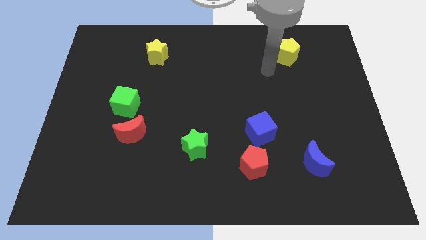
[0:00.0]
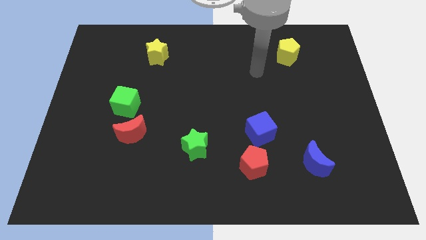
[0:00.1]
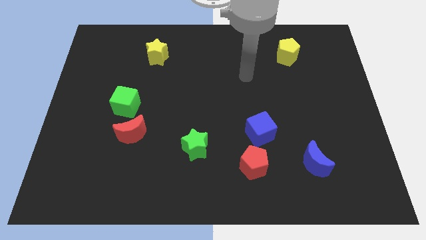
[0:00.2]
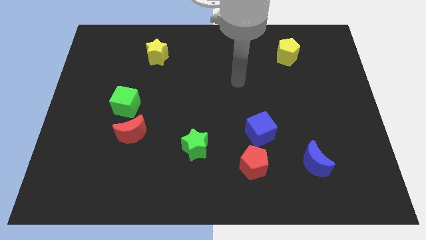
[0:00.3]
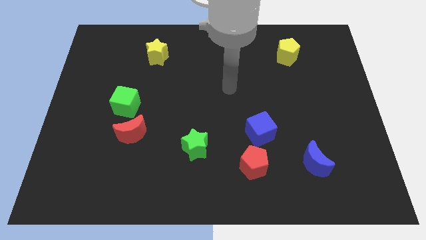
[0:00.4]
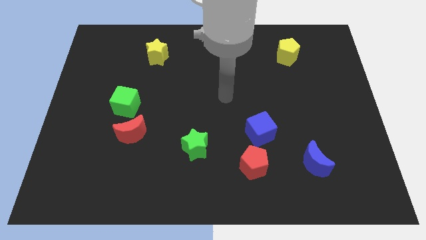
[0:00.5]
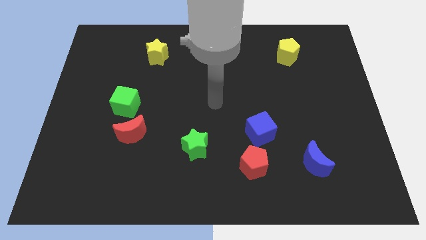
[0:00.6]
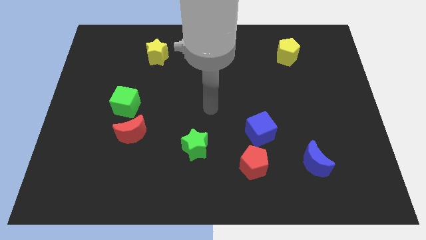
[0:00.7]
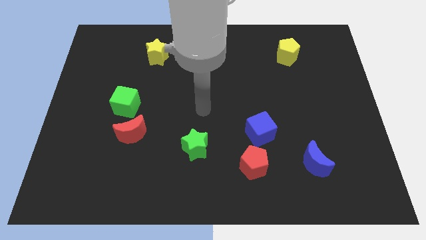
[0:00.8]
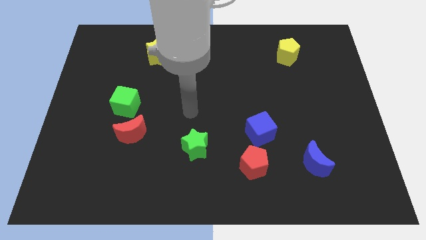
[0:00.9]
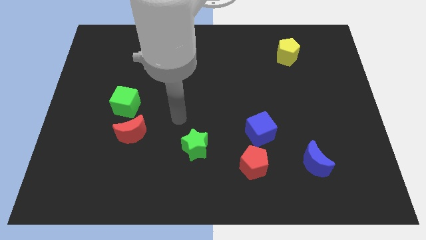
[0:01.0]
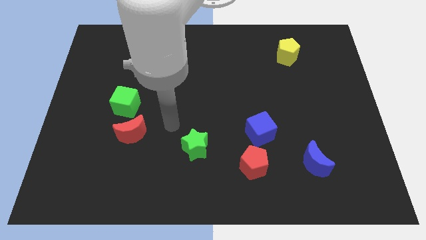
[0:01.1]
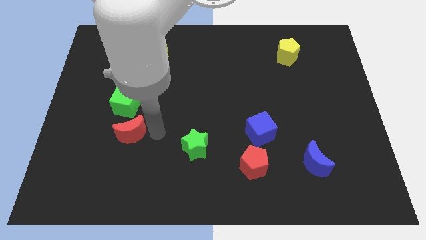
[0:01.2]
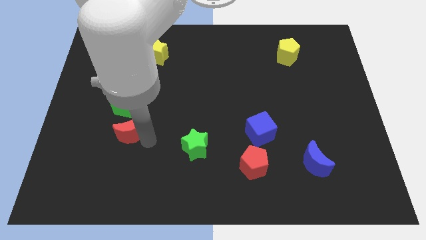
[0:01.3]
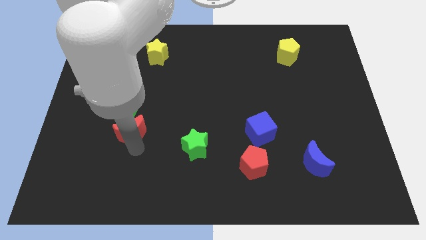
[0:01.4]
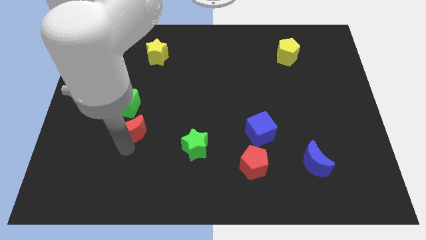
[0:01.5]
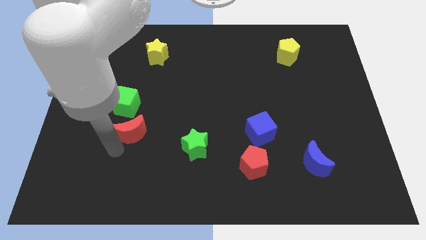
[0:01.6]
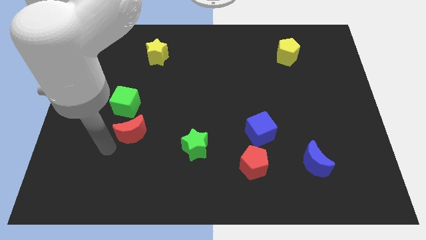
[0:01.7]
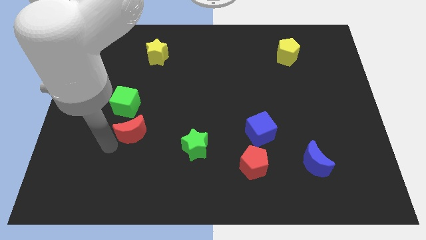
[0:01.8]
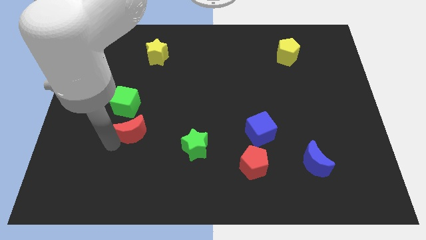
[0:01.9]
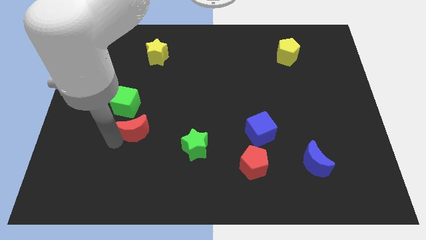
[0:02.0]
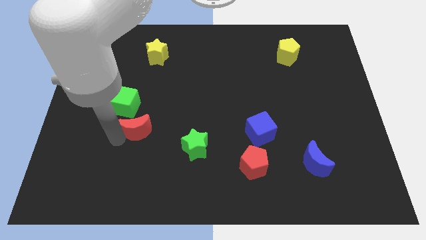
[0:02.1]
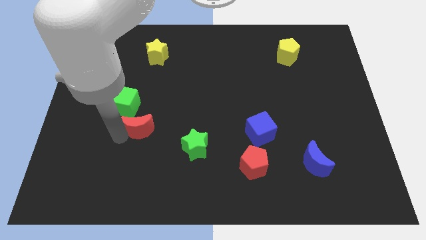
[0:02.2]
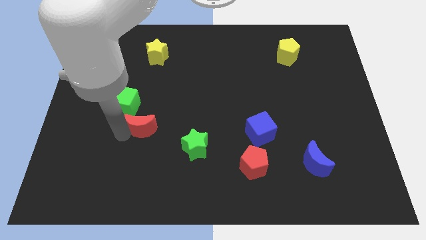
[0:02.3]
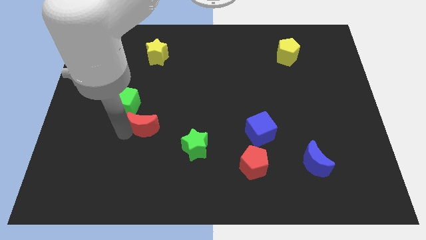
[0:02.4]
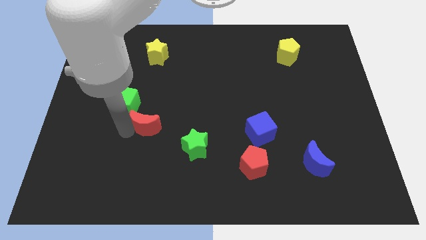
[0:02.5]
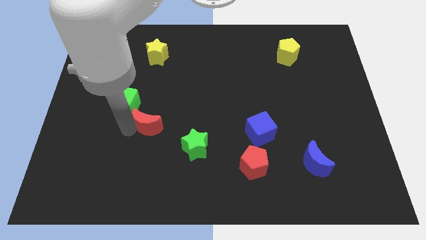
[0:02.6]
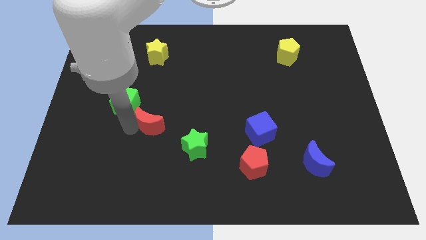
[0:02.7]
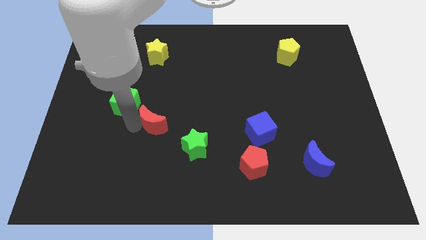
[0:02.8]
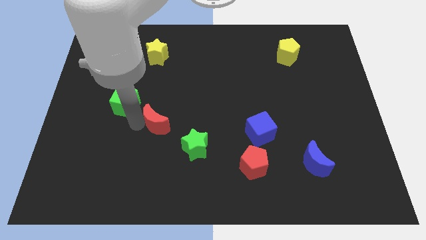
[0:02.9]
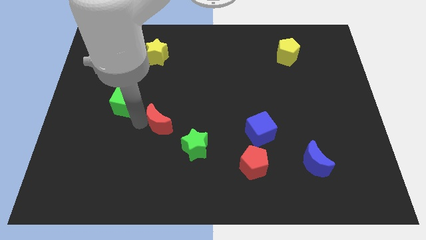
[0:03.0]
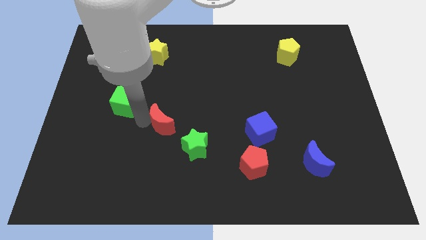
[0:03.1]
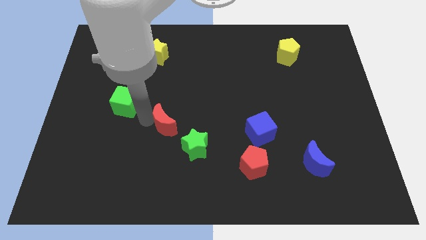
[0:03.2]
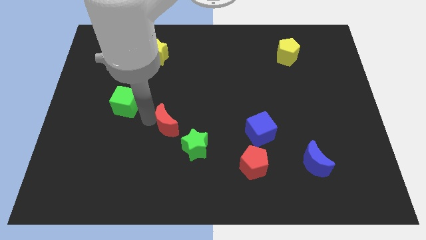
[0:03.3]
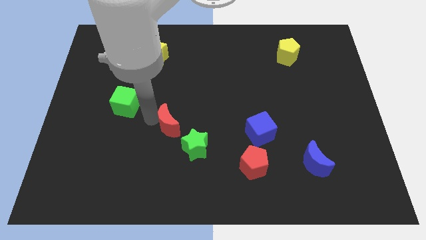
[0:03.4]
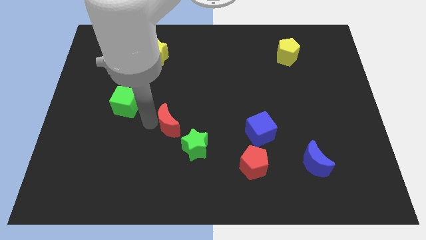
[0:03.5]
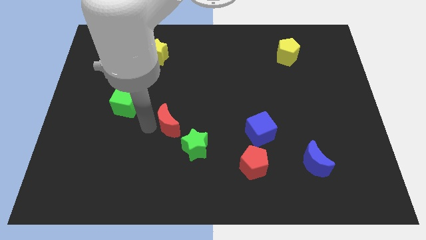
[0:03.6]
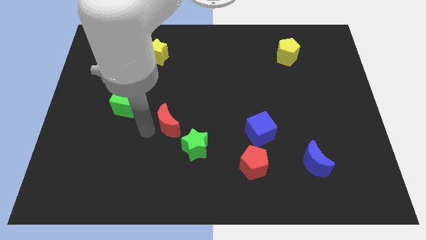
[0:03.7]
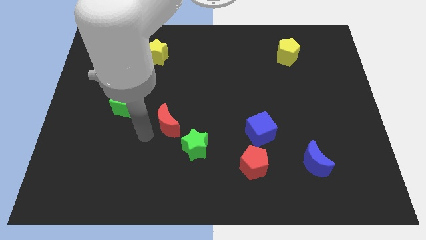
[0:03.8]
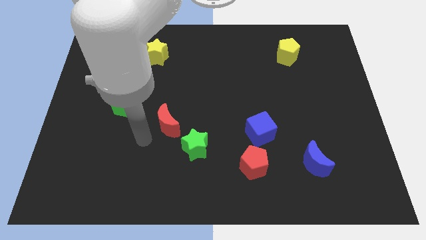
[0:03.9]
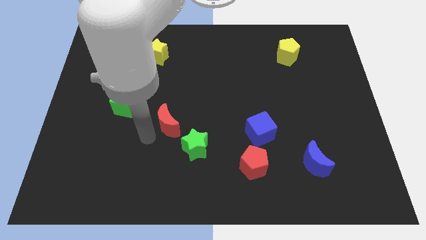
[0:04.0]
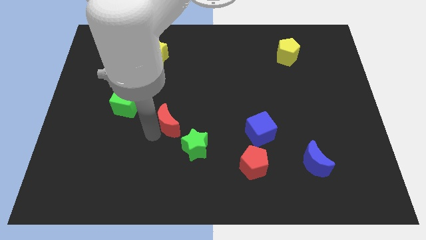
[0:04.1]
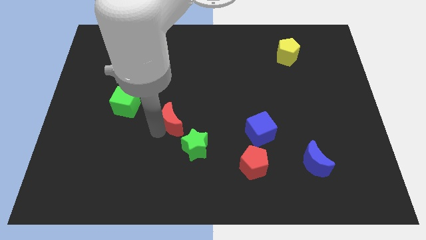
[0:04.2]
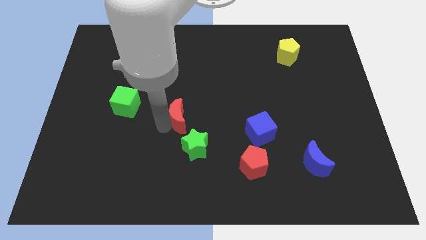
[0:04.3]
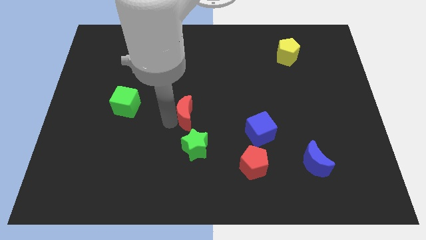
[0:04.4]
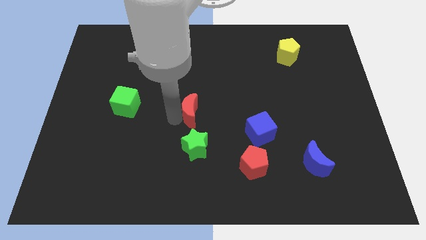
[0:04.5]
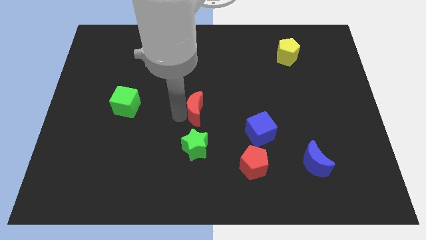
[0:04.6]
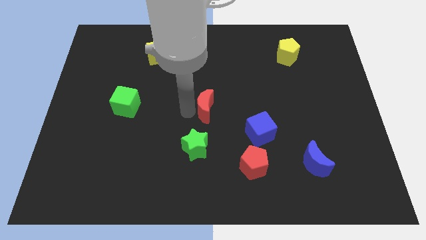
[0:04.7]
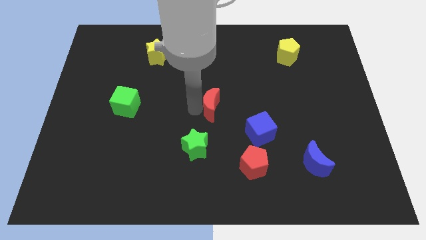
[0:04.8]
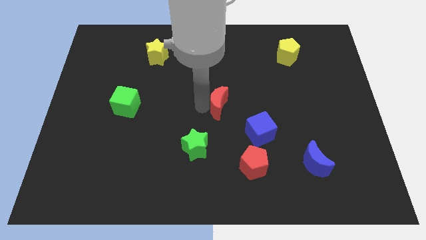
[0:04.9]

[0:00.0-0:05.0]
push the red moon to the top left of the blue cube

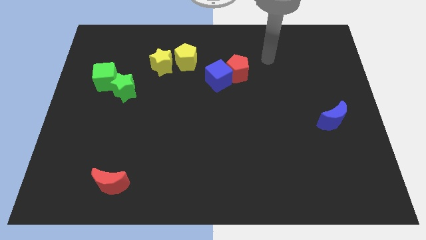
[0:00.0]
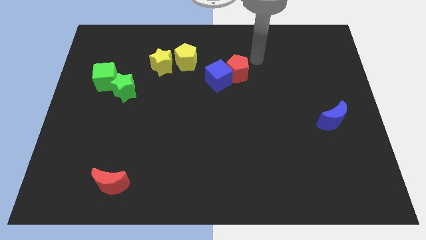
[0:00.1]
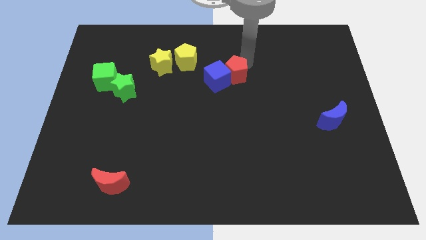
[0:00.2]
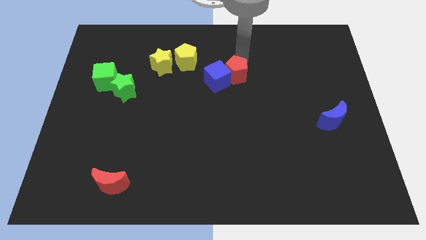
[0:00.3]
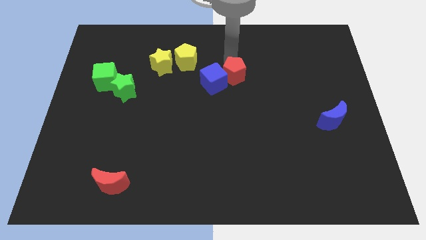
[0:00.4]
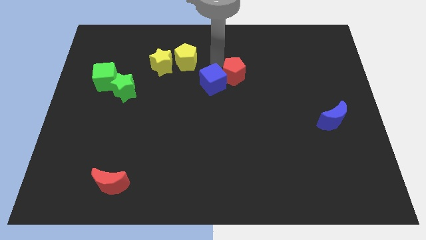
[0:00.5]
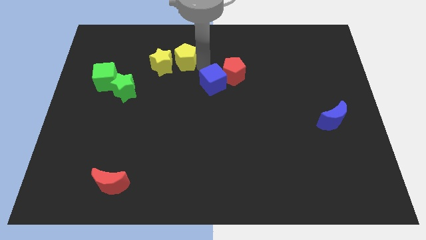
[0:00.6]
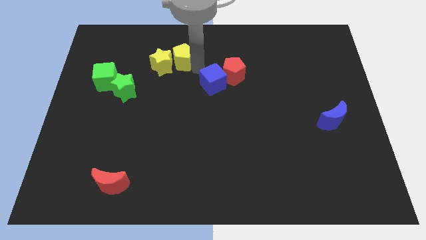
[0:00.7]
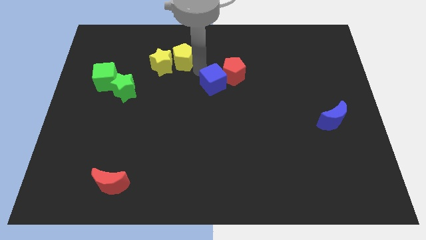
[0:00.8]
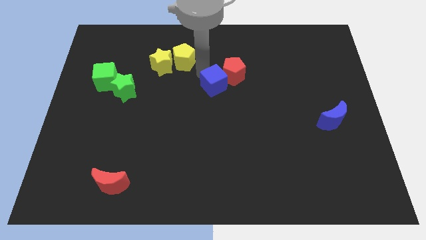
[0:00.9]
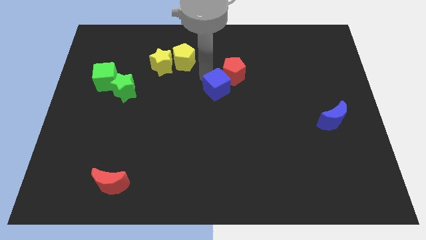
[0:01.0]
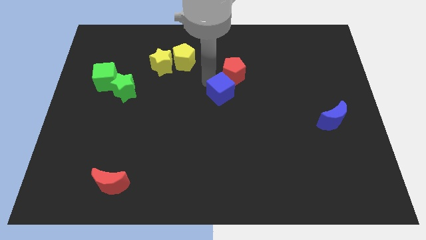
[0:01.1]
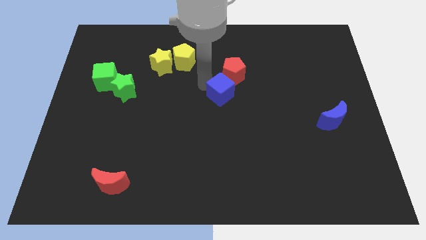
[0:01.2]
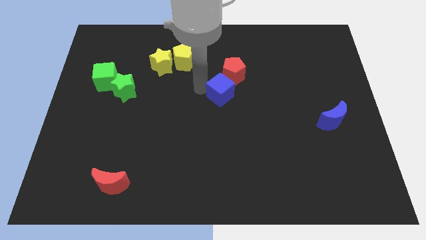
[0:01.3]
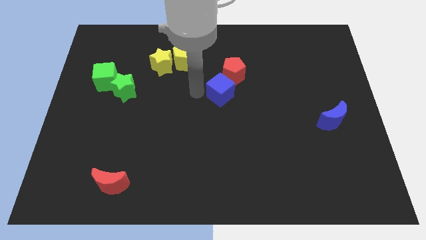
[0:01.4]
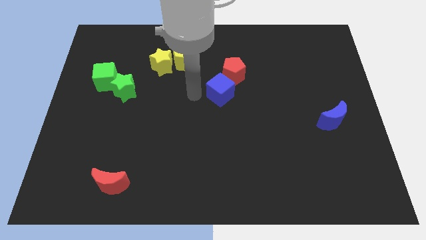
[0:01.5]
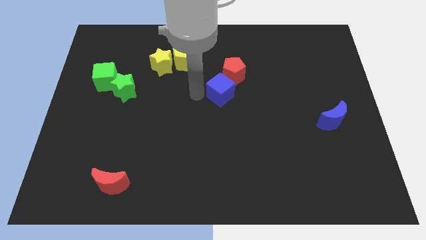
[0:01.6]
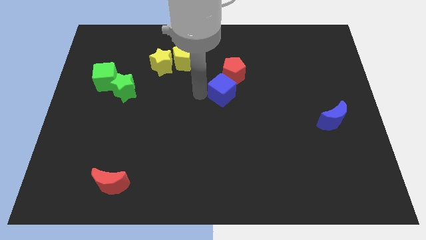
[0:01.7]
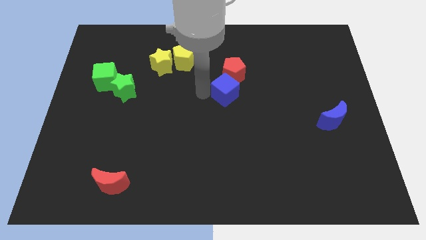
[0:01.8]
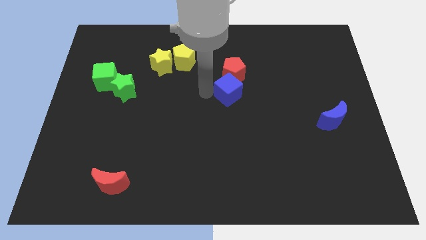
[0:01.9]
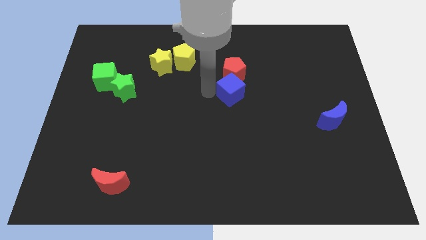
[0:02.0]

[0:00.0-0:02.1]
slide the blue cube to the bottom right of the red pentagon
